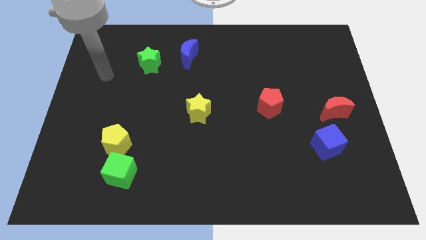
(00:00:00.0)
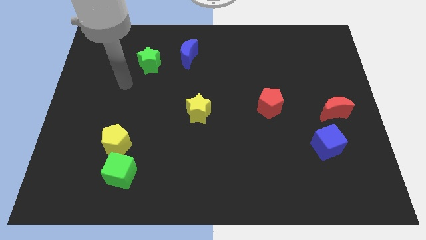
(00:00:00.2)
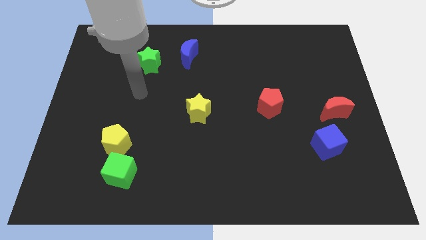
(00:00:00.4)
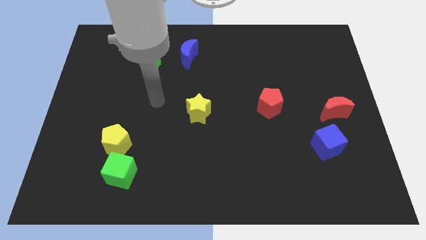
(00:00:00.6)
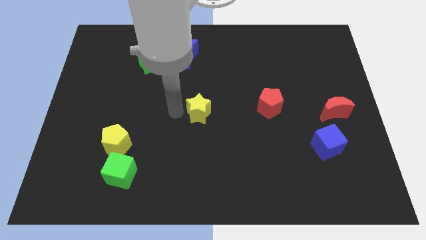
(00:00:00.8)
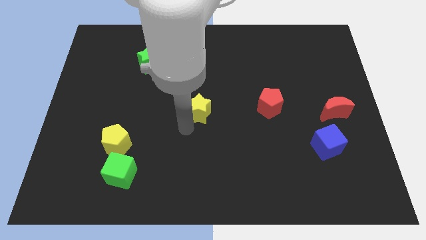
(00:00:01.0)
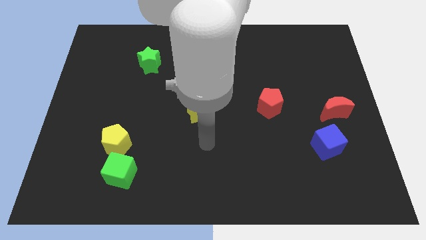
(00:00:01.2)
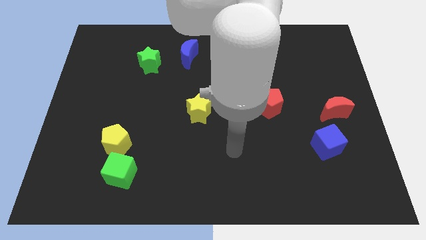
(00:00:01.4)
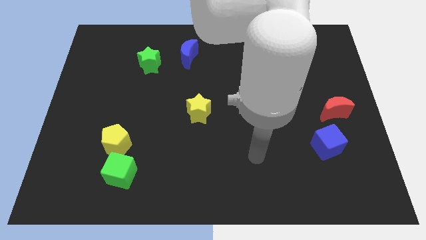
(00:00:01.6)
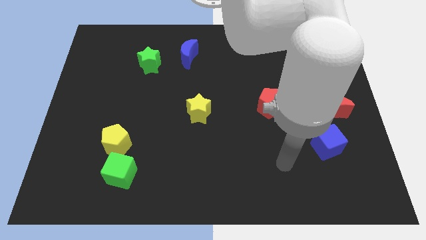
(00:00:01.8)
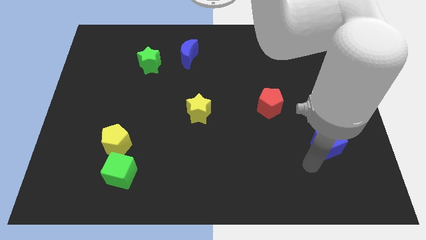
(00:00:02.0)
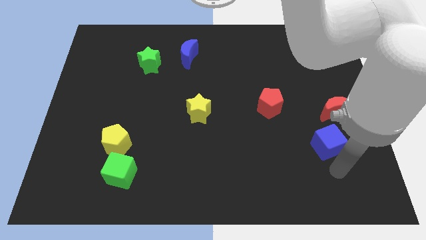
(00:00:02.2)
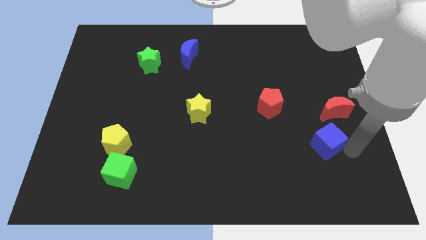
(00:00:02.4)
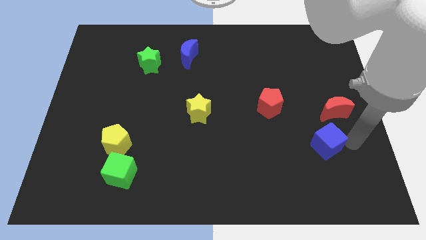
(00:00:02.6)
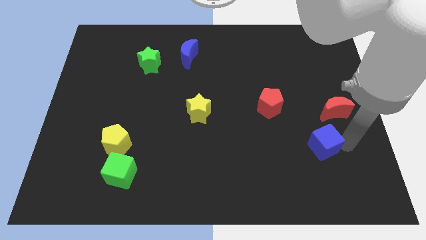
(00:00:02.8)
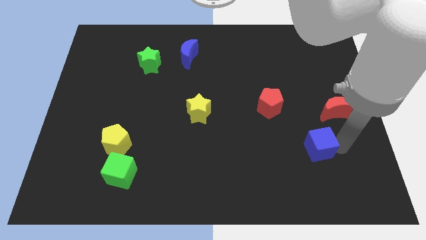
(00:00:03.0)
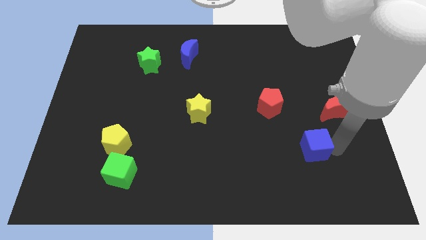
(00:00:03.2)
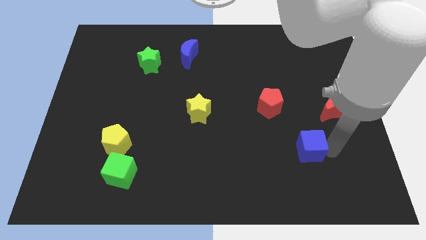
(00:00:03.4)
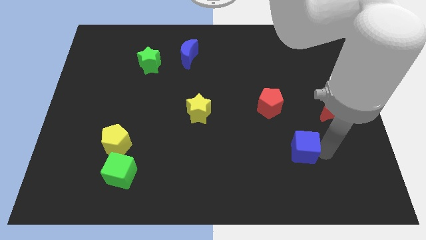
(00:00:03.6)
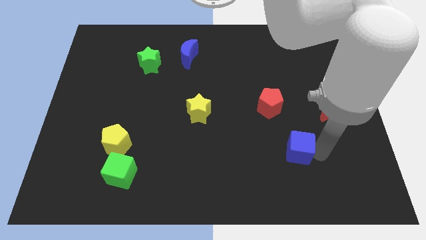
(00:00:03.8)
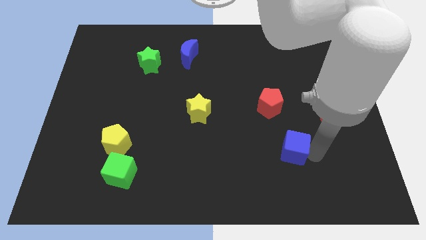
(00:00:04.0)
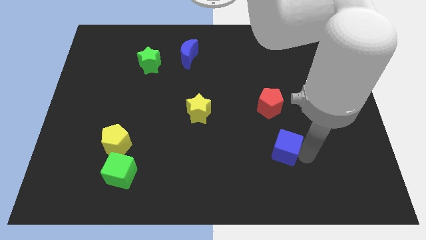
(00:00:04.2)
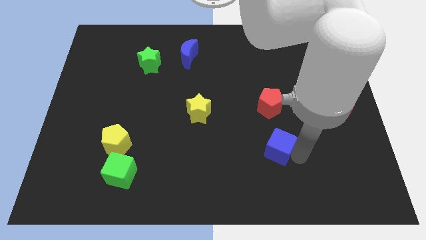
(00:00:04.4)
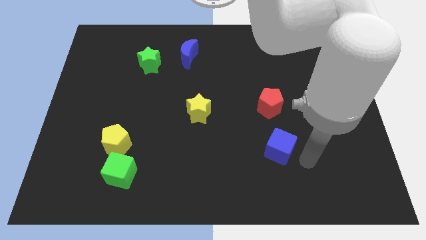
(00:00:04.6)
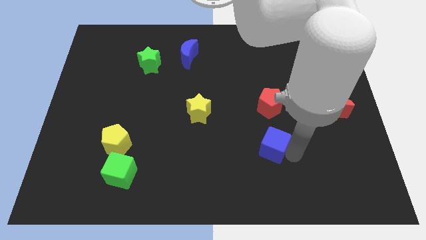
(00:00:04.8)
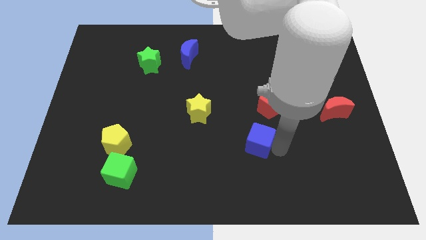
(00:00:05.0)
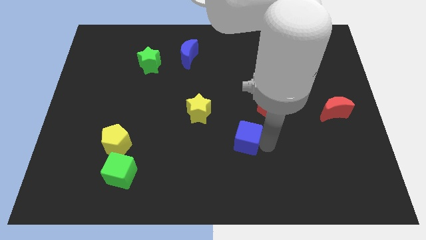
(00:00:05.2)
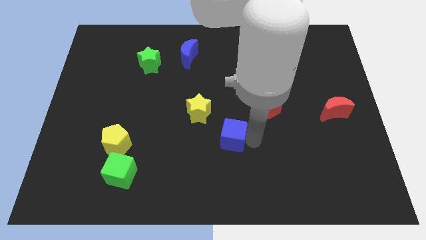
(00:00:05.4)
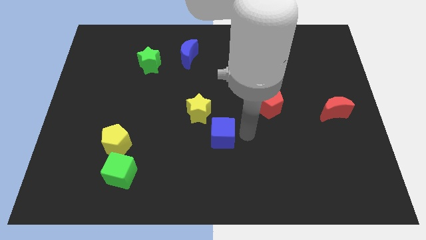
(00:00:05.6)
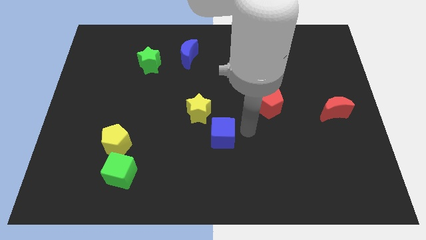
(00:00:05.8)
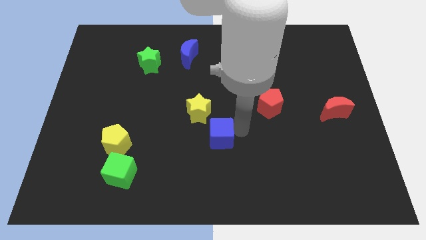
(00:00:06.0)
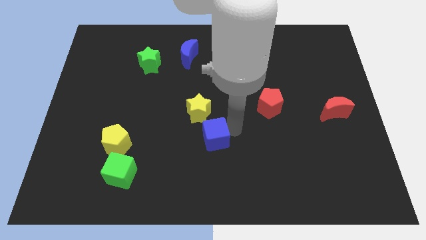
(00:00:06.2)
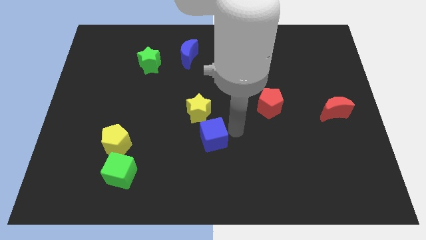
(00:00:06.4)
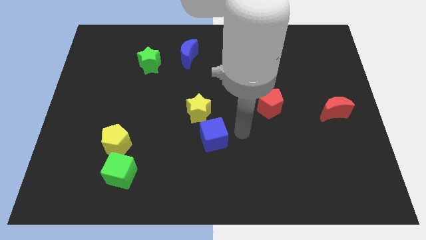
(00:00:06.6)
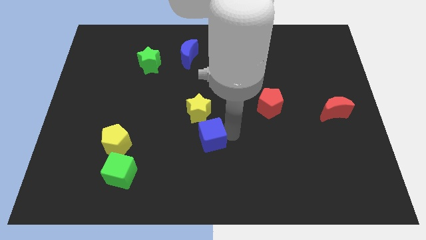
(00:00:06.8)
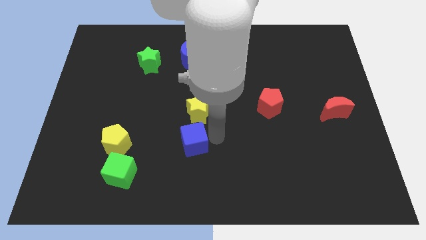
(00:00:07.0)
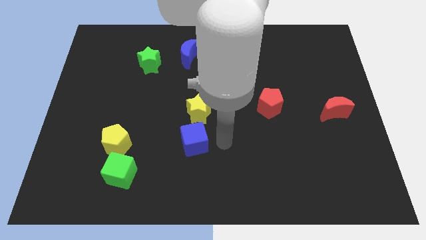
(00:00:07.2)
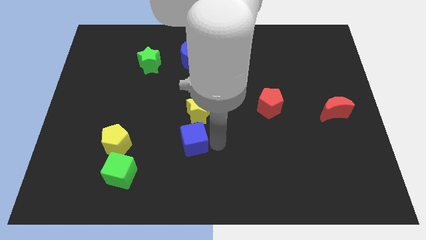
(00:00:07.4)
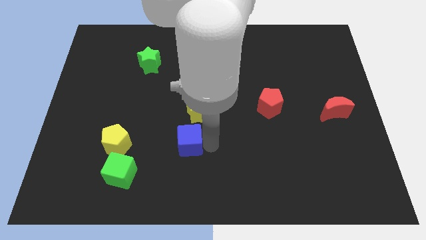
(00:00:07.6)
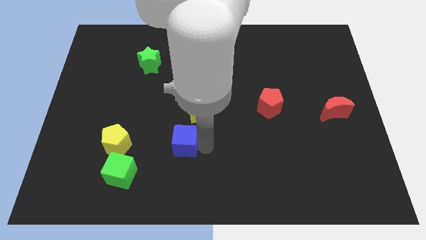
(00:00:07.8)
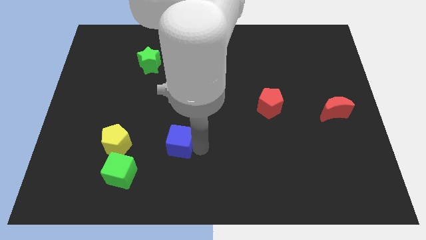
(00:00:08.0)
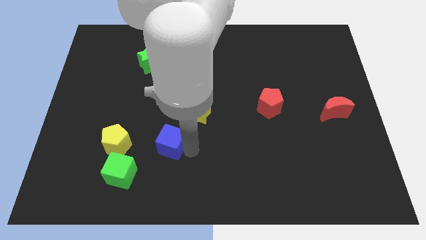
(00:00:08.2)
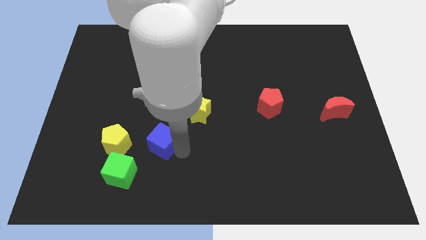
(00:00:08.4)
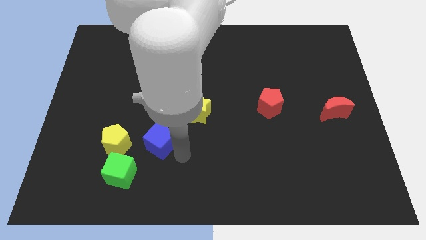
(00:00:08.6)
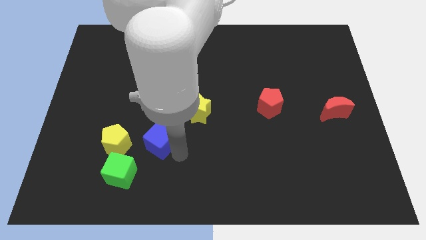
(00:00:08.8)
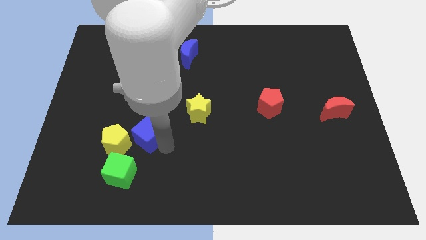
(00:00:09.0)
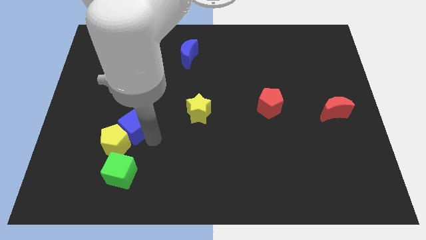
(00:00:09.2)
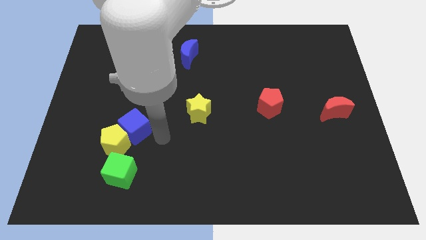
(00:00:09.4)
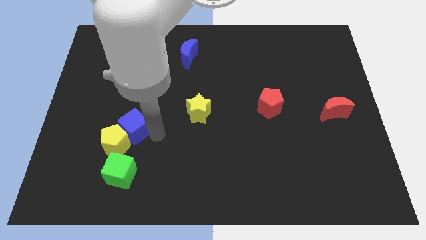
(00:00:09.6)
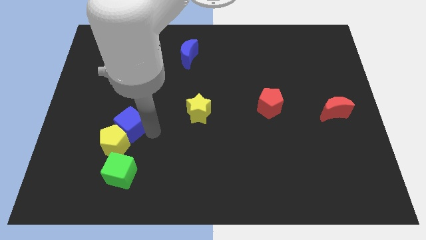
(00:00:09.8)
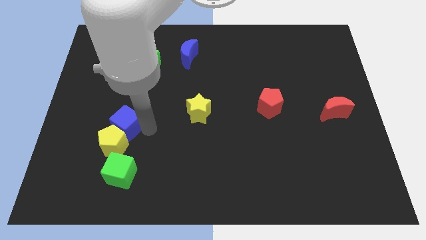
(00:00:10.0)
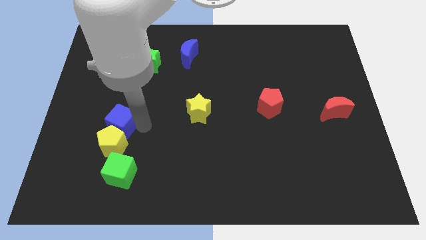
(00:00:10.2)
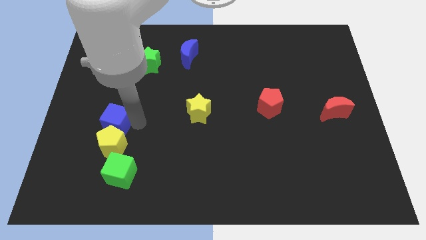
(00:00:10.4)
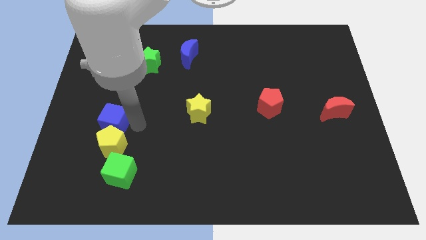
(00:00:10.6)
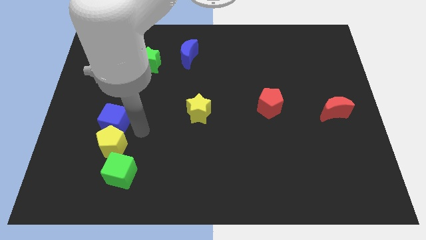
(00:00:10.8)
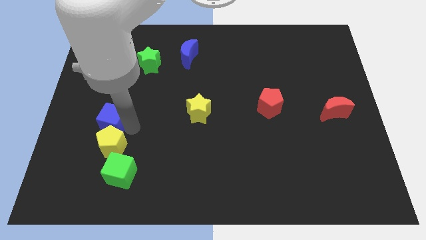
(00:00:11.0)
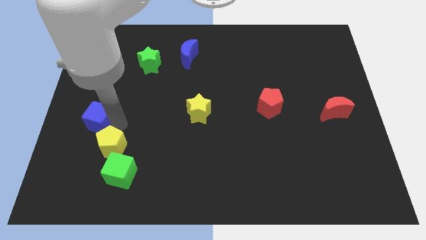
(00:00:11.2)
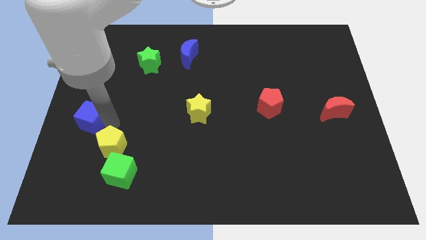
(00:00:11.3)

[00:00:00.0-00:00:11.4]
put the blue cube to the center left
